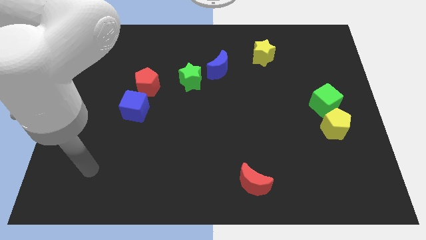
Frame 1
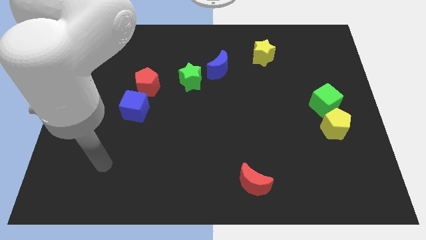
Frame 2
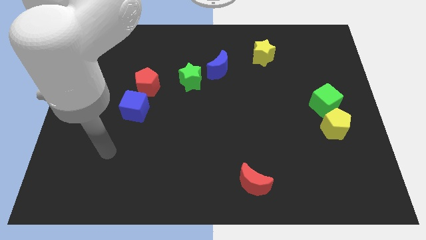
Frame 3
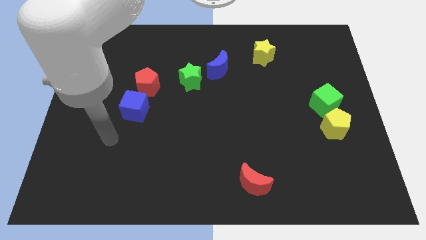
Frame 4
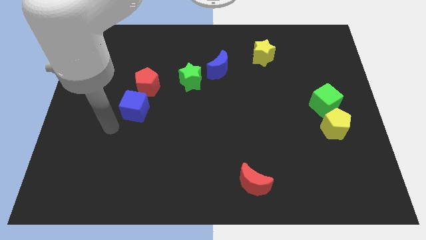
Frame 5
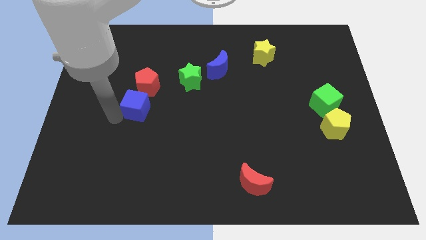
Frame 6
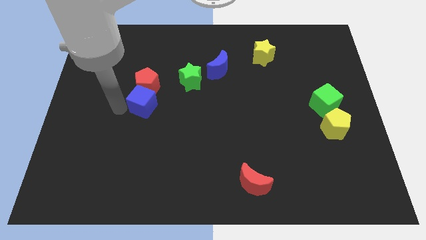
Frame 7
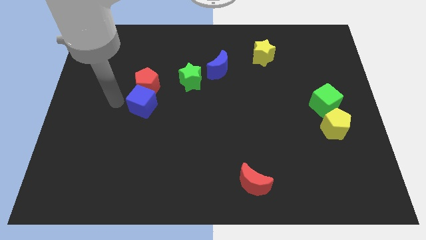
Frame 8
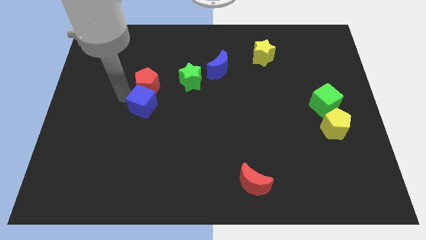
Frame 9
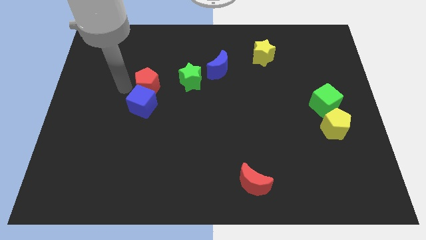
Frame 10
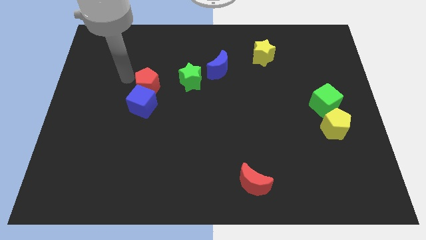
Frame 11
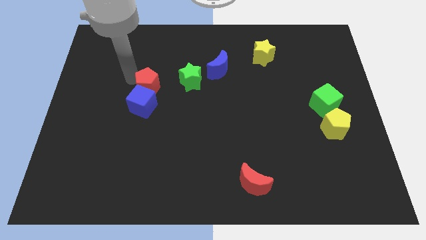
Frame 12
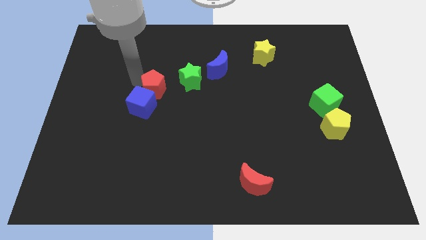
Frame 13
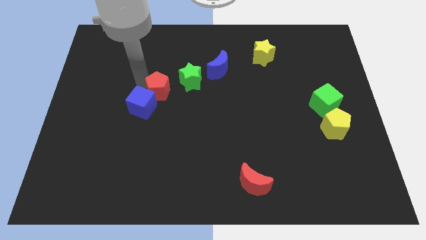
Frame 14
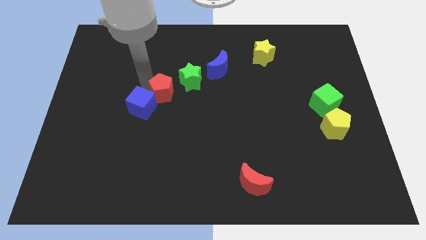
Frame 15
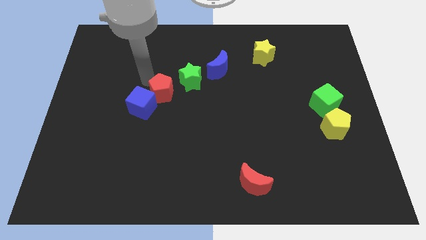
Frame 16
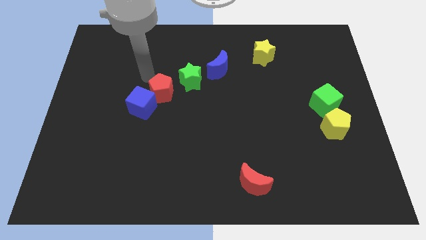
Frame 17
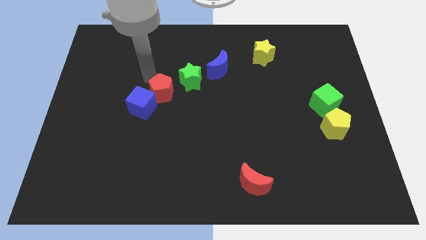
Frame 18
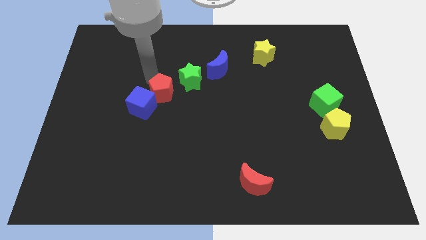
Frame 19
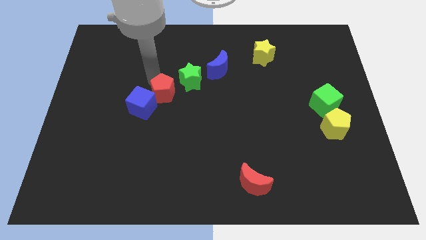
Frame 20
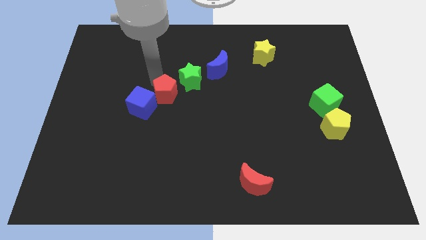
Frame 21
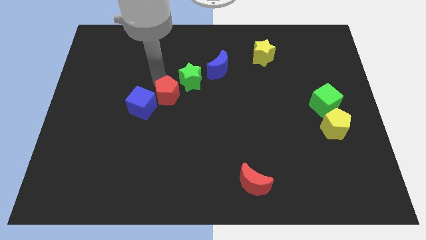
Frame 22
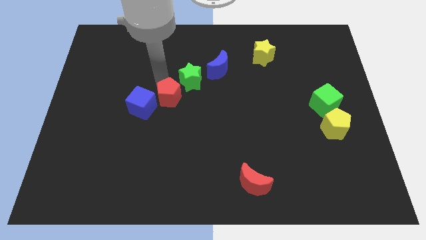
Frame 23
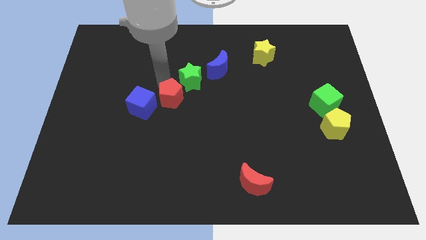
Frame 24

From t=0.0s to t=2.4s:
move the red pentagon diagonally downwards and to the right a little bit

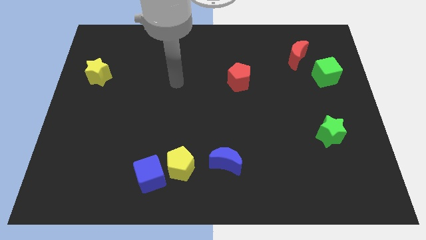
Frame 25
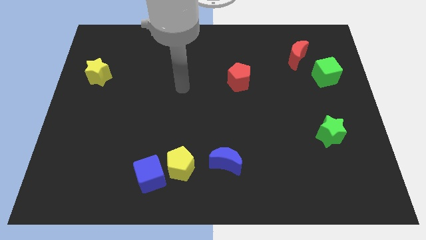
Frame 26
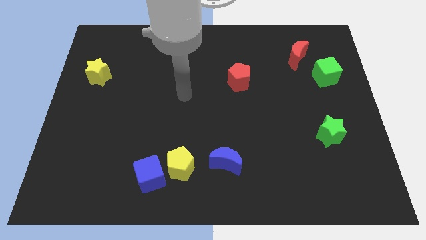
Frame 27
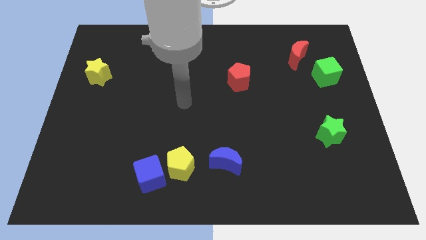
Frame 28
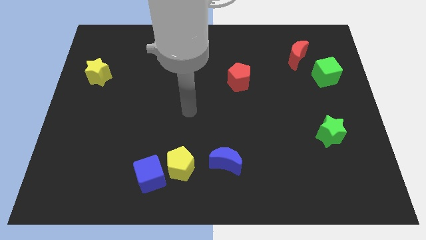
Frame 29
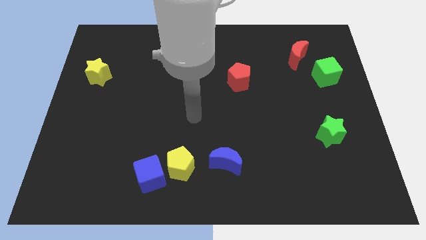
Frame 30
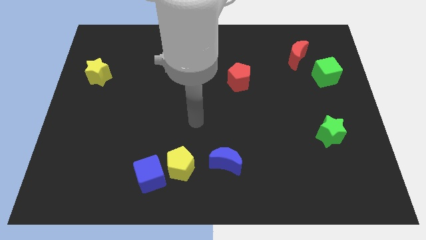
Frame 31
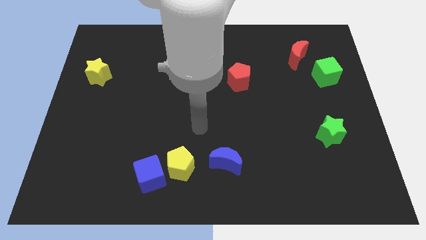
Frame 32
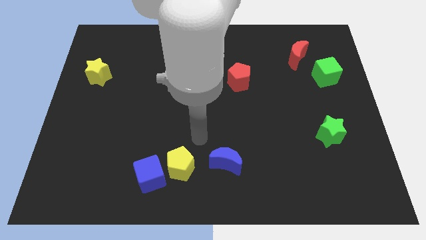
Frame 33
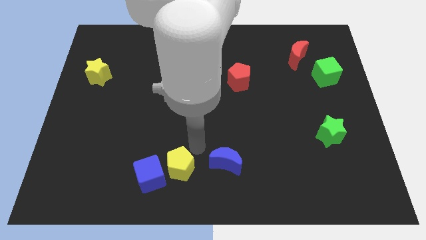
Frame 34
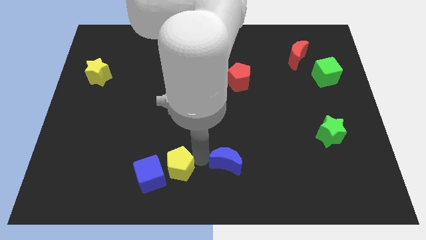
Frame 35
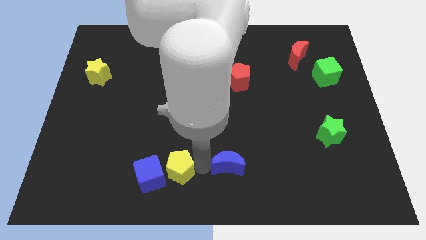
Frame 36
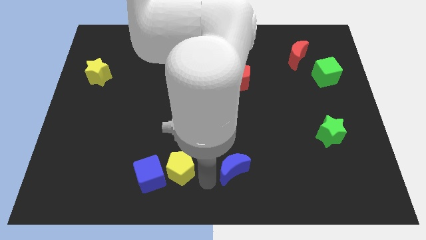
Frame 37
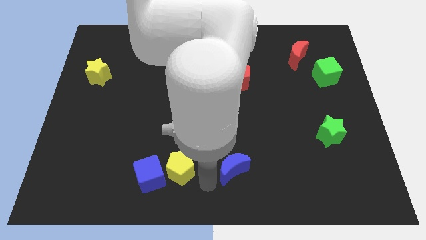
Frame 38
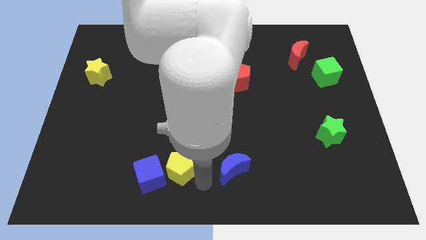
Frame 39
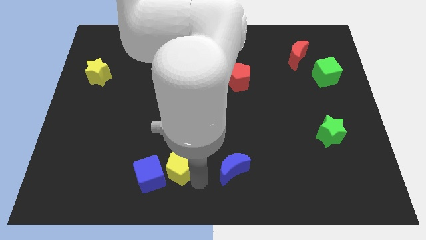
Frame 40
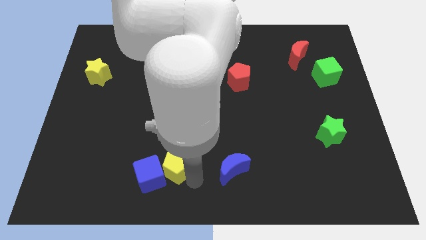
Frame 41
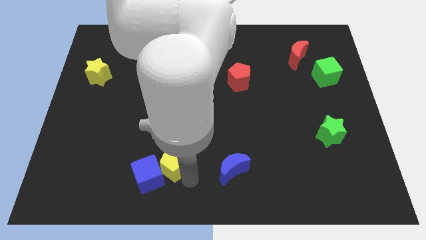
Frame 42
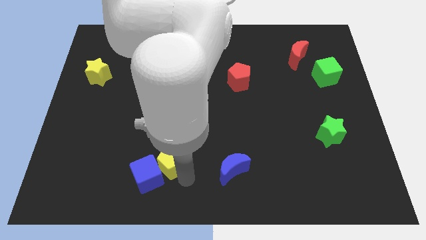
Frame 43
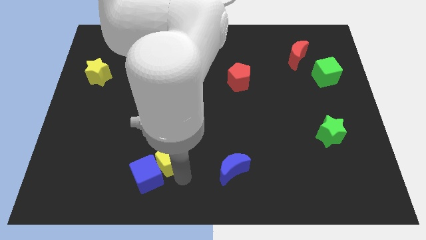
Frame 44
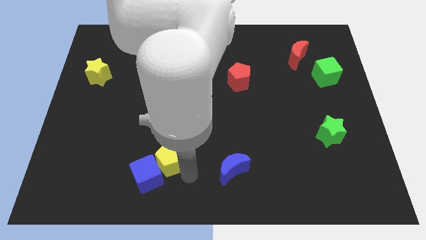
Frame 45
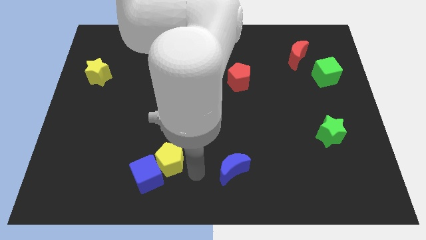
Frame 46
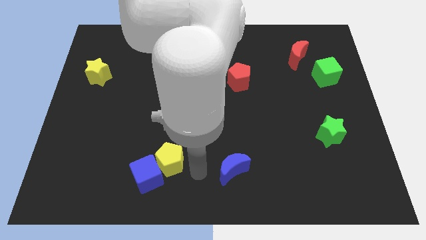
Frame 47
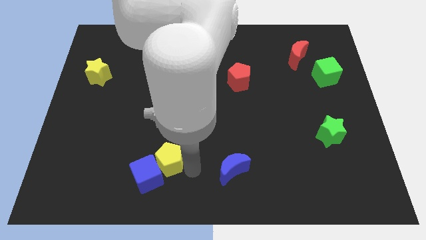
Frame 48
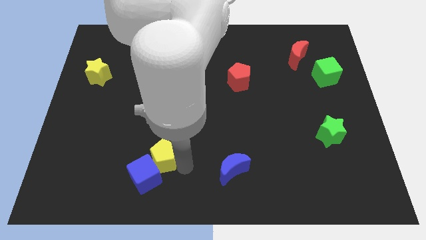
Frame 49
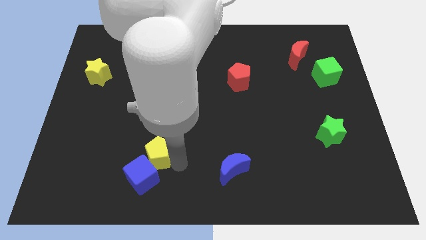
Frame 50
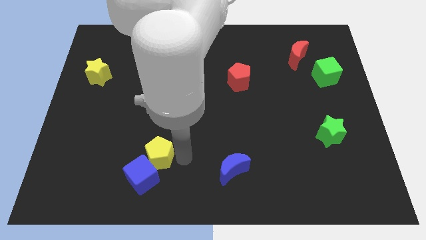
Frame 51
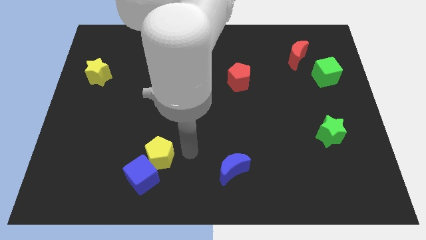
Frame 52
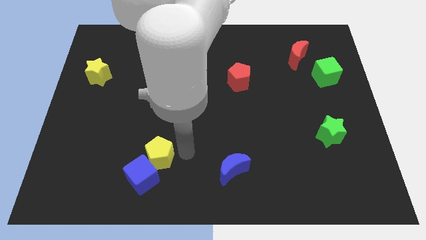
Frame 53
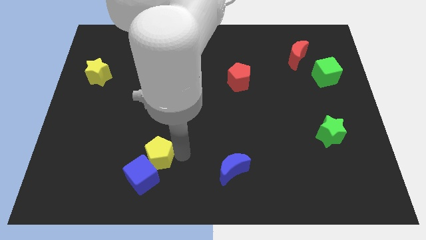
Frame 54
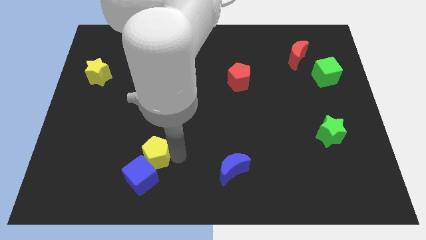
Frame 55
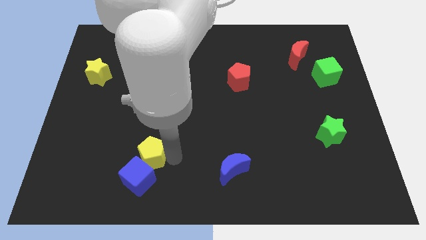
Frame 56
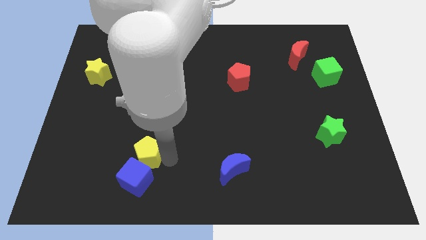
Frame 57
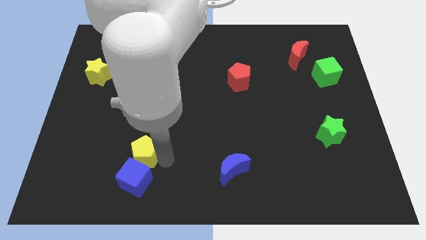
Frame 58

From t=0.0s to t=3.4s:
slightly move the yellow pentagon left

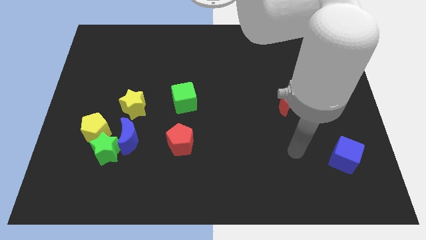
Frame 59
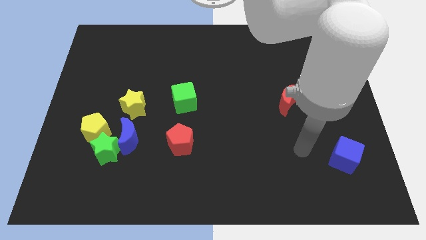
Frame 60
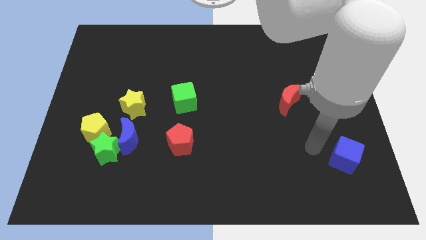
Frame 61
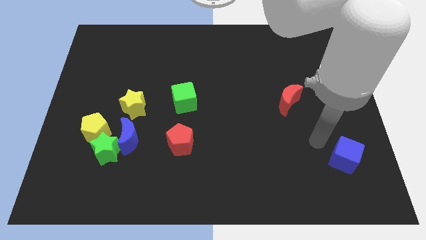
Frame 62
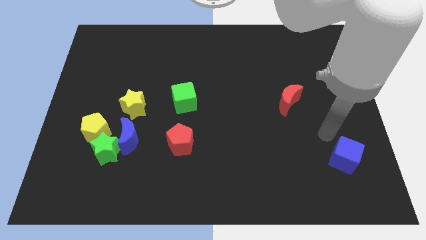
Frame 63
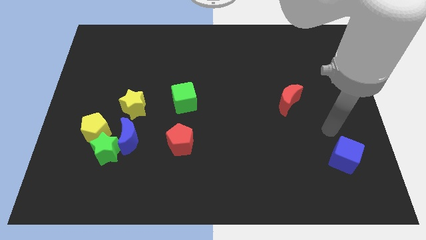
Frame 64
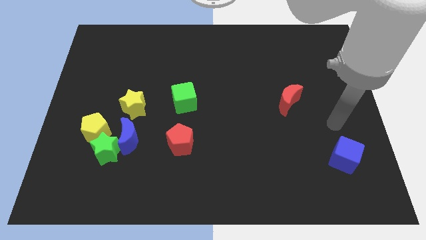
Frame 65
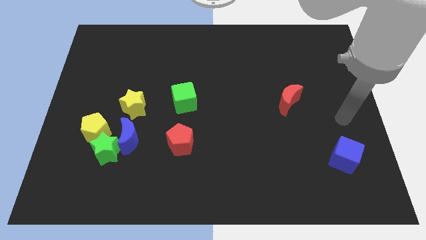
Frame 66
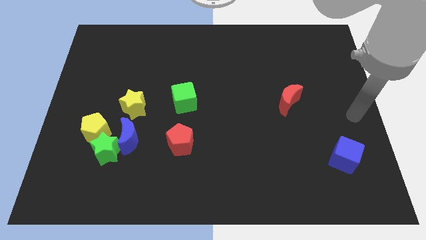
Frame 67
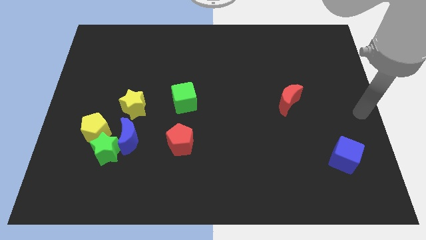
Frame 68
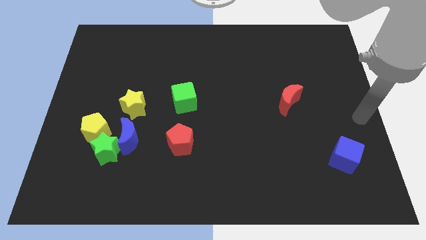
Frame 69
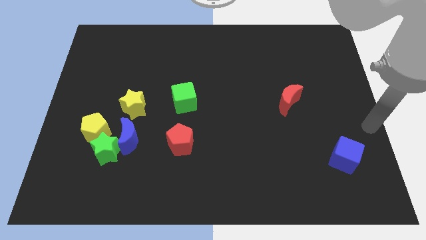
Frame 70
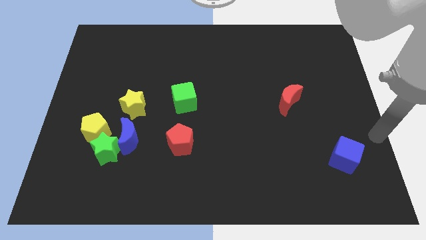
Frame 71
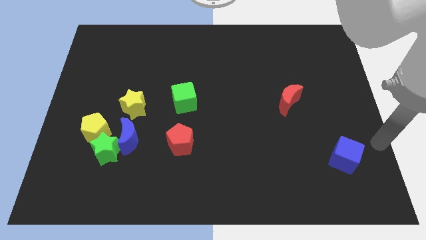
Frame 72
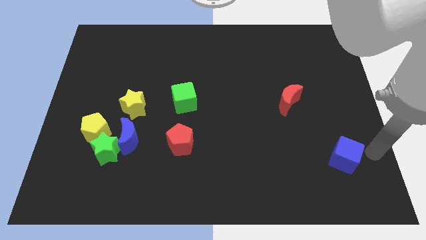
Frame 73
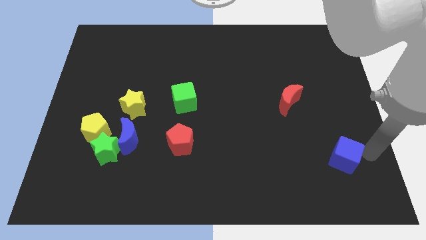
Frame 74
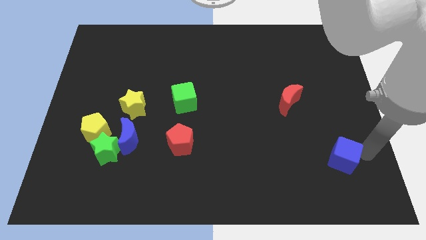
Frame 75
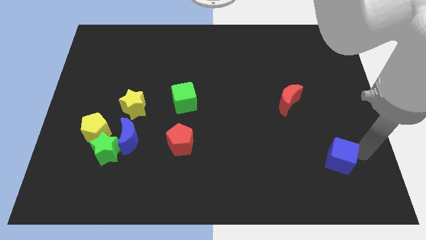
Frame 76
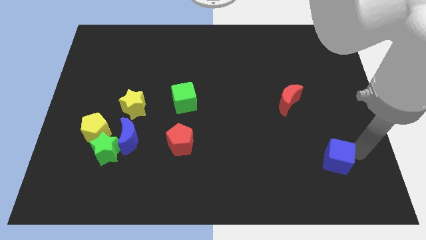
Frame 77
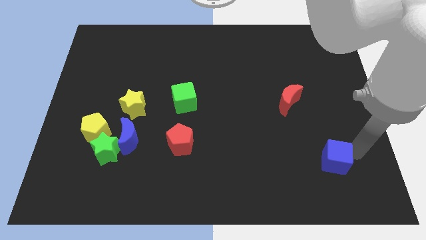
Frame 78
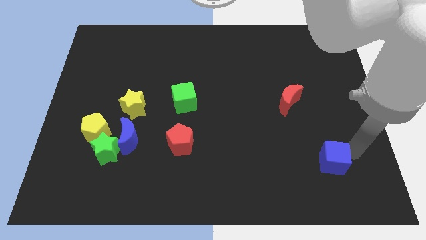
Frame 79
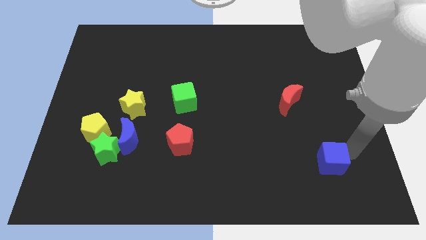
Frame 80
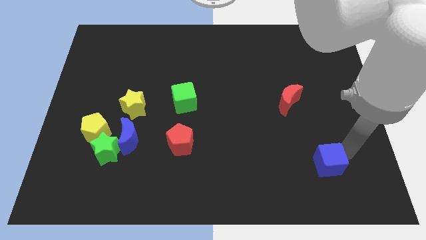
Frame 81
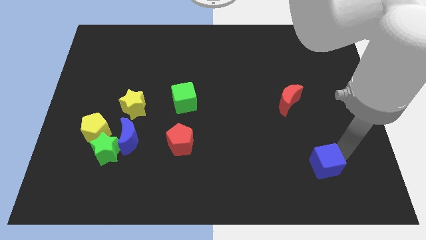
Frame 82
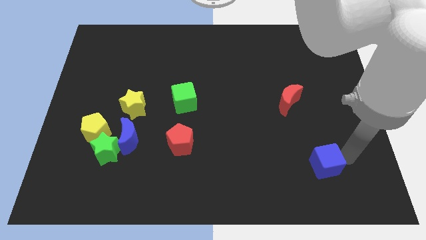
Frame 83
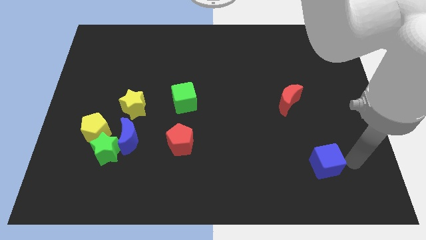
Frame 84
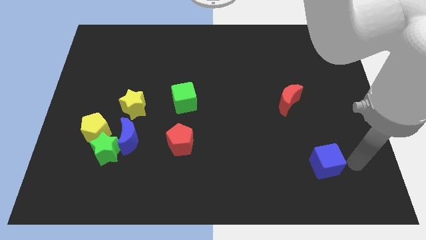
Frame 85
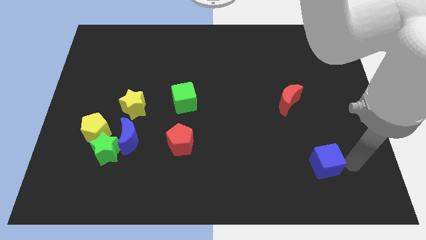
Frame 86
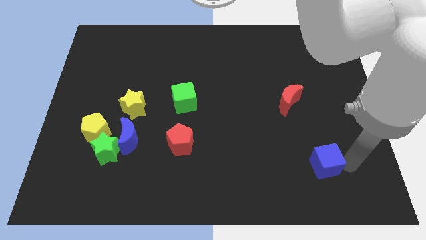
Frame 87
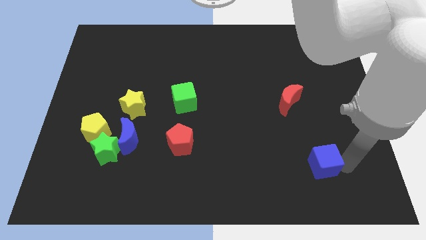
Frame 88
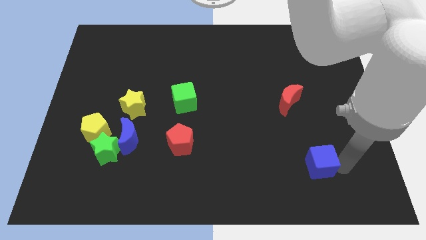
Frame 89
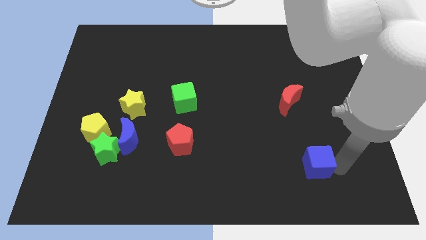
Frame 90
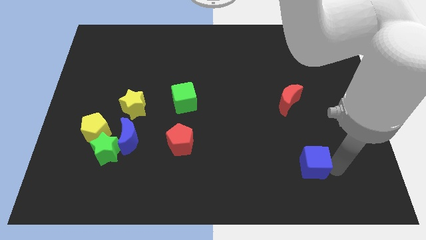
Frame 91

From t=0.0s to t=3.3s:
move the blue cube left a bit
